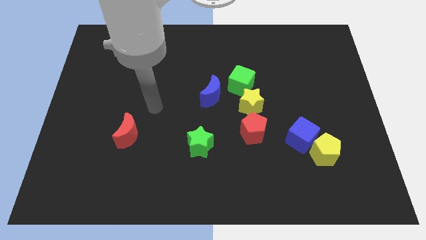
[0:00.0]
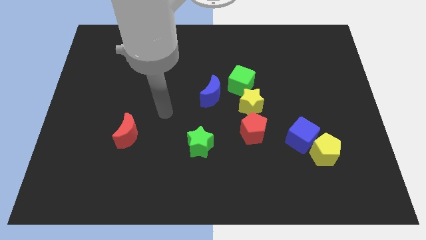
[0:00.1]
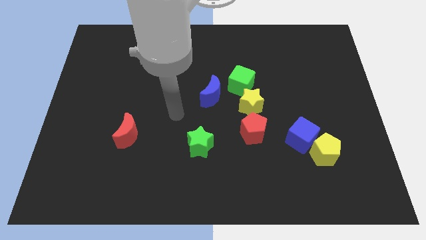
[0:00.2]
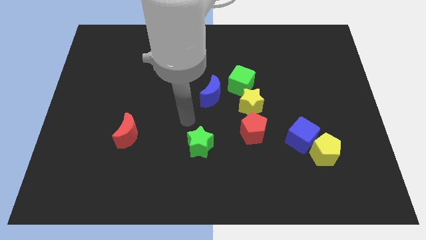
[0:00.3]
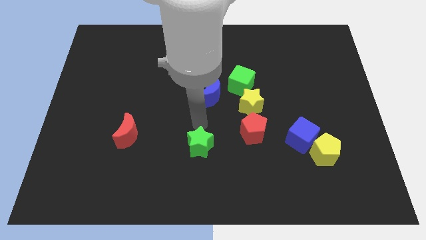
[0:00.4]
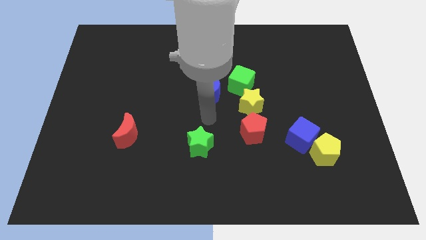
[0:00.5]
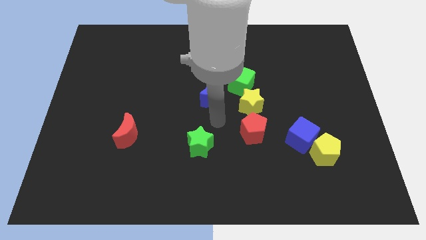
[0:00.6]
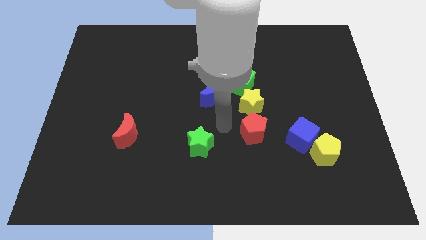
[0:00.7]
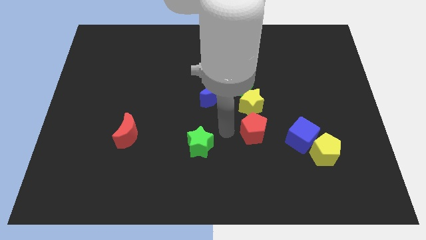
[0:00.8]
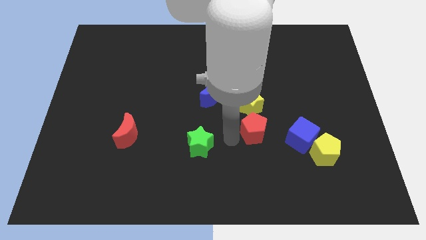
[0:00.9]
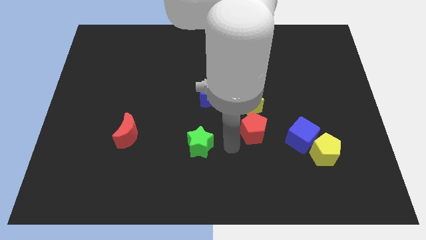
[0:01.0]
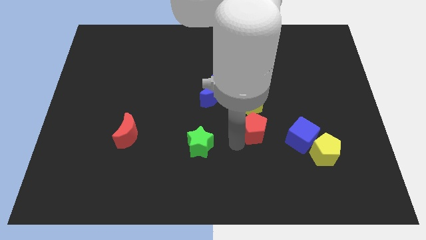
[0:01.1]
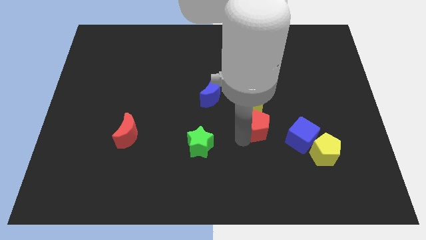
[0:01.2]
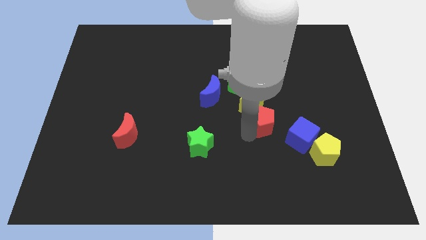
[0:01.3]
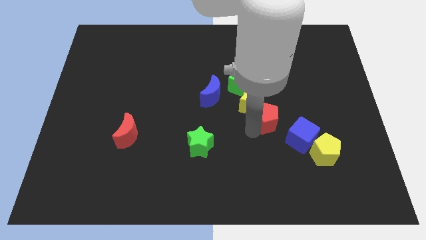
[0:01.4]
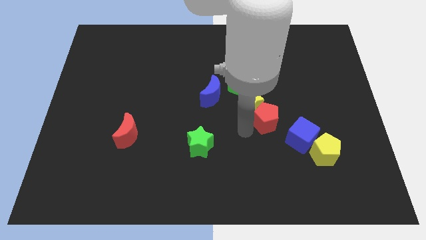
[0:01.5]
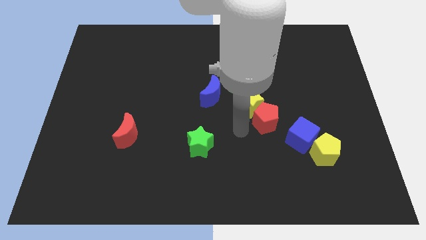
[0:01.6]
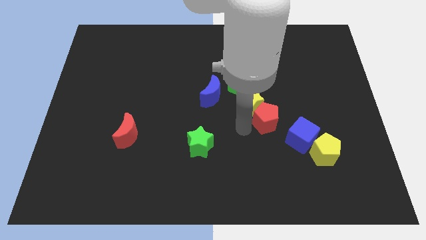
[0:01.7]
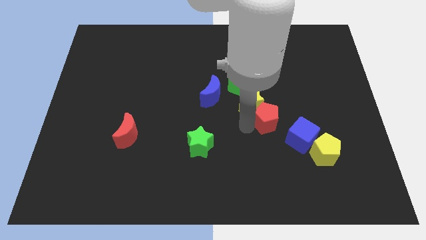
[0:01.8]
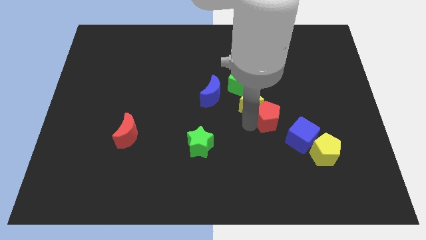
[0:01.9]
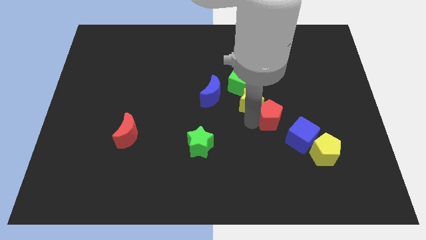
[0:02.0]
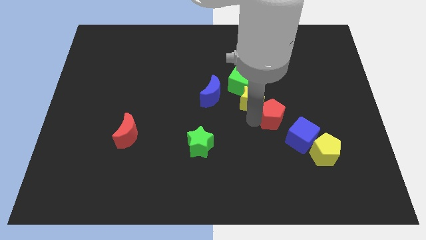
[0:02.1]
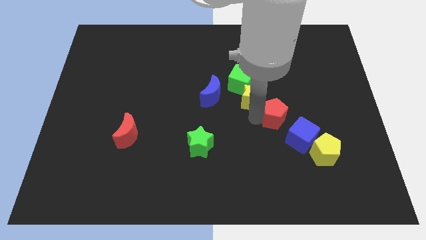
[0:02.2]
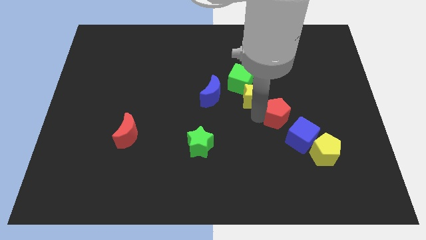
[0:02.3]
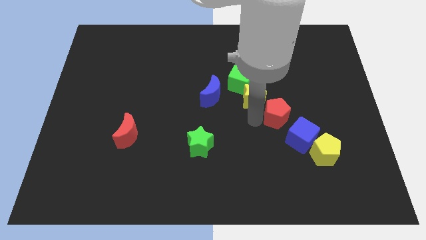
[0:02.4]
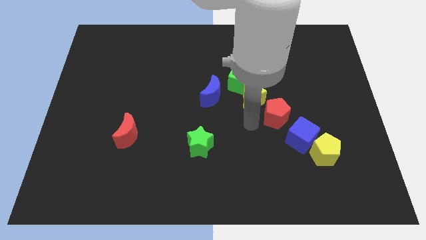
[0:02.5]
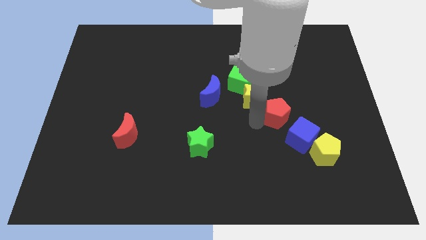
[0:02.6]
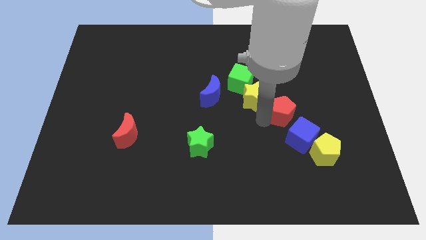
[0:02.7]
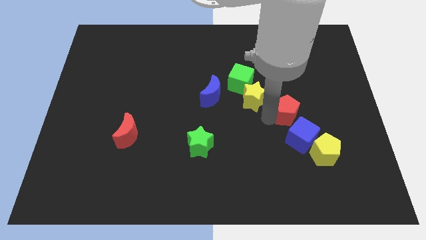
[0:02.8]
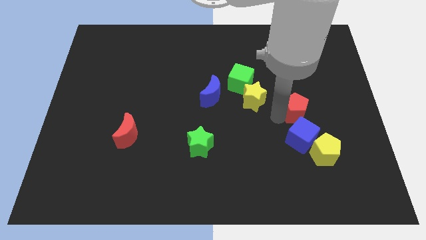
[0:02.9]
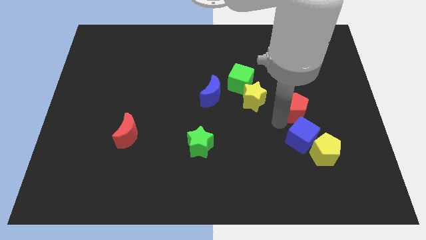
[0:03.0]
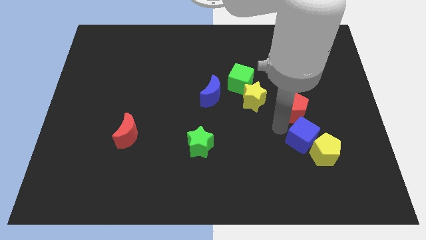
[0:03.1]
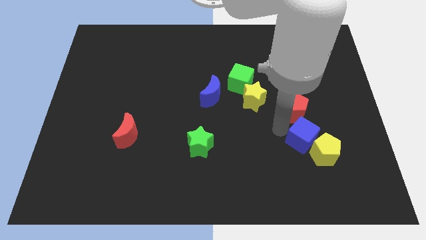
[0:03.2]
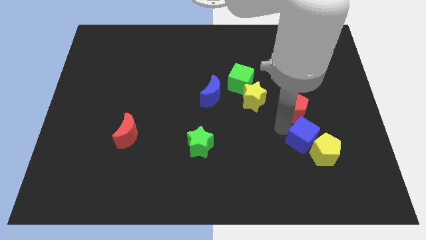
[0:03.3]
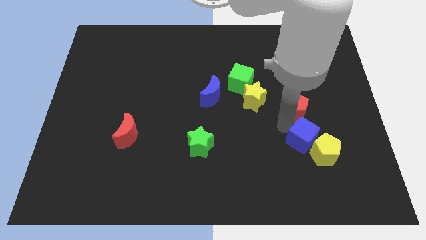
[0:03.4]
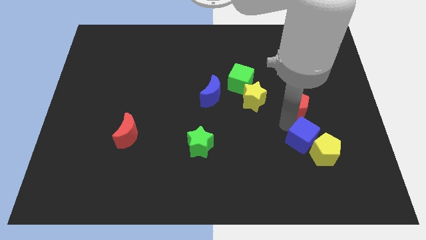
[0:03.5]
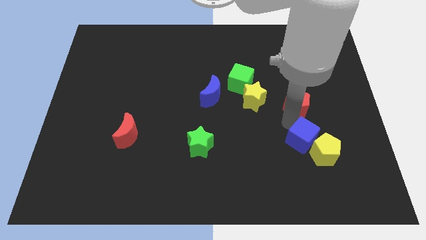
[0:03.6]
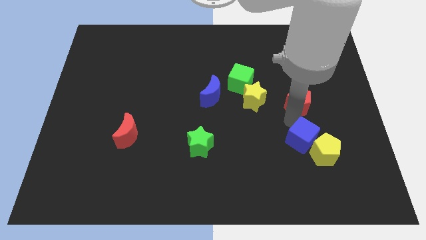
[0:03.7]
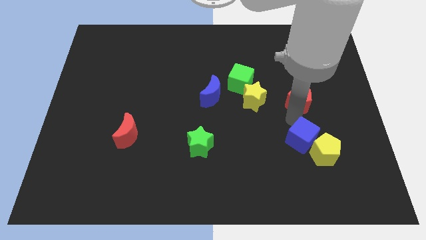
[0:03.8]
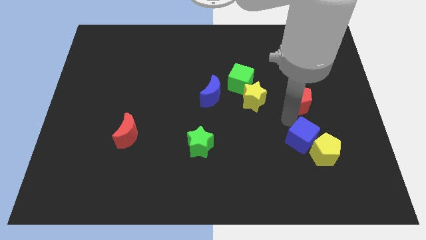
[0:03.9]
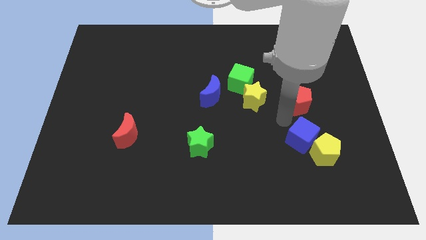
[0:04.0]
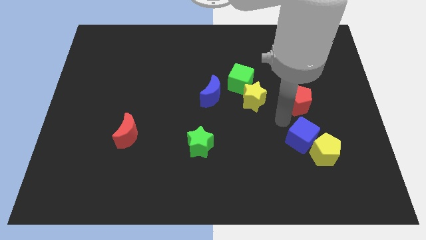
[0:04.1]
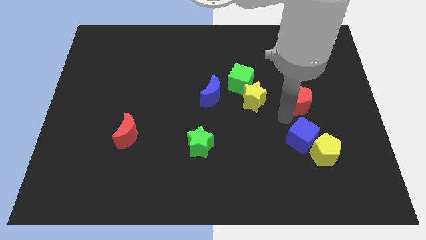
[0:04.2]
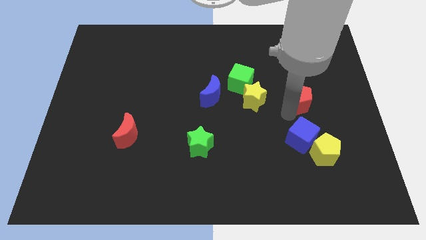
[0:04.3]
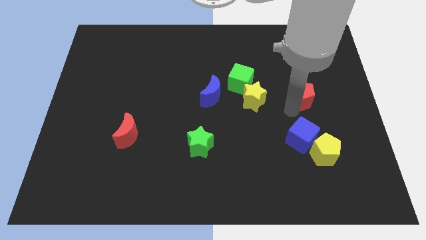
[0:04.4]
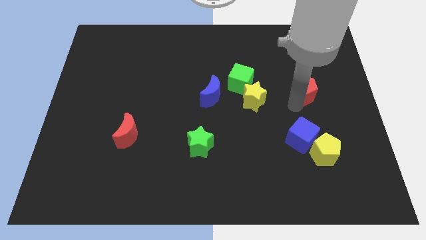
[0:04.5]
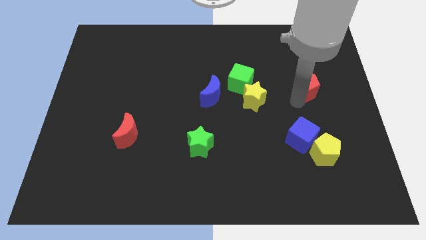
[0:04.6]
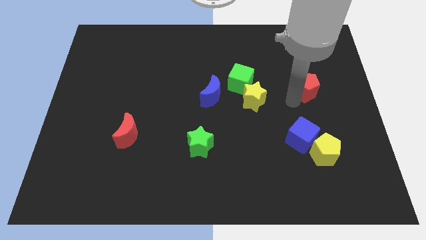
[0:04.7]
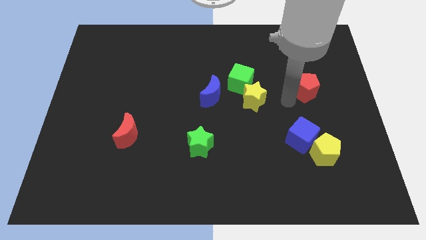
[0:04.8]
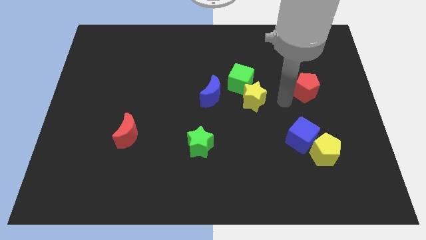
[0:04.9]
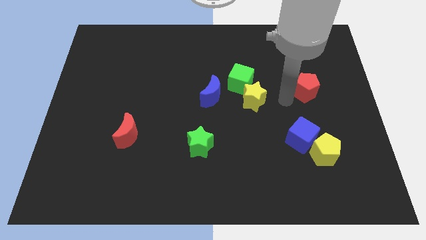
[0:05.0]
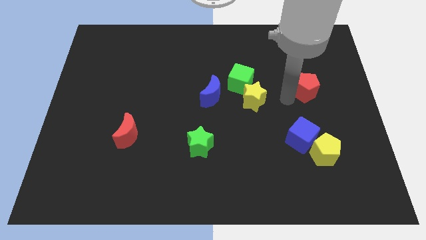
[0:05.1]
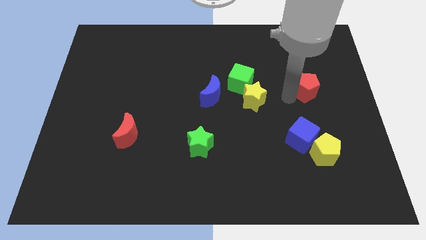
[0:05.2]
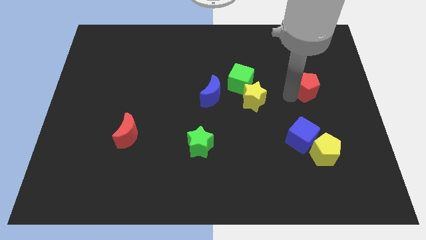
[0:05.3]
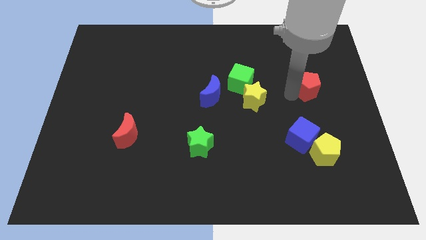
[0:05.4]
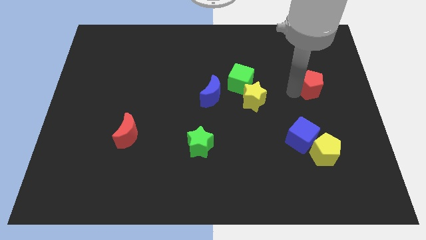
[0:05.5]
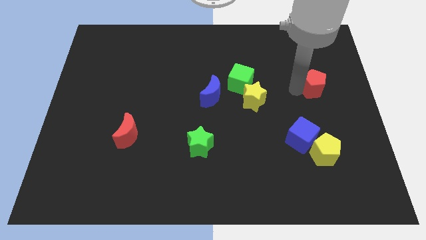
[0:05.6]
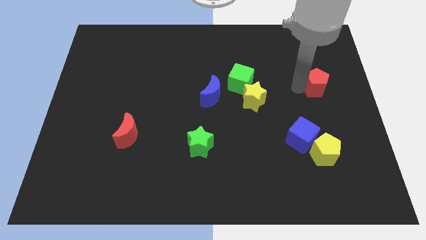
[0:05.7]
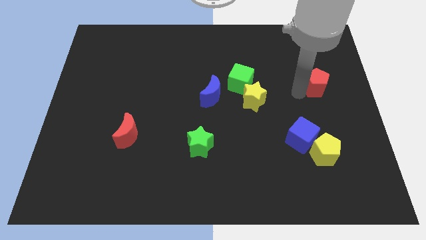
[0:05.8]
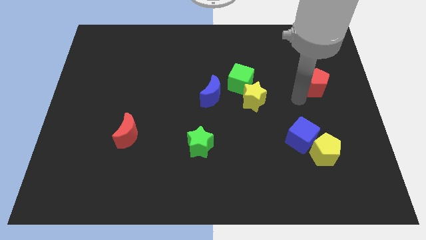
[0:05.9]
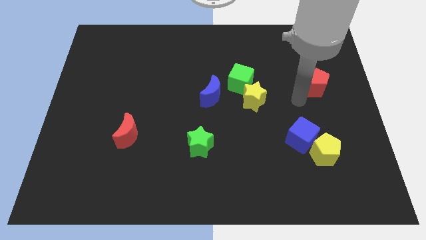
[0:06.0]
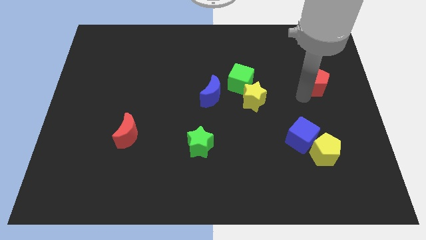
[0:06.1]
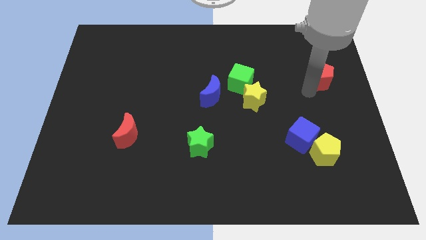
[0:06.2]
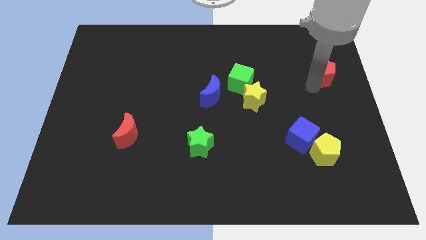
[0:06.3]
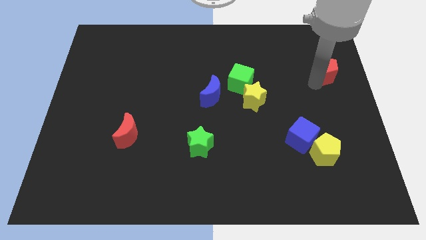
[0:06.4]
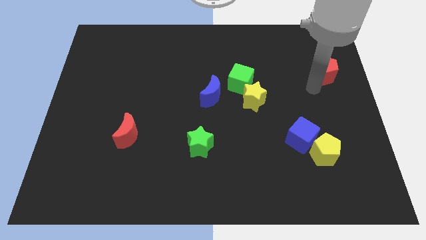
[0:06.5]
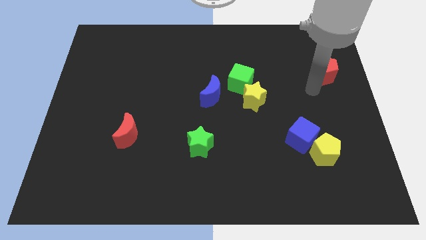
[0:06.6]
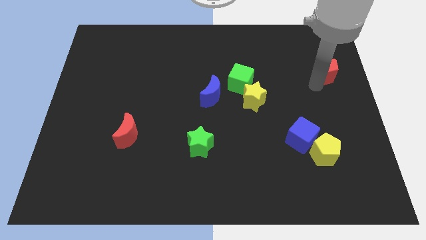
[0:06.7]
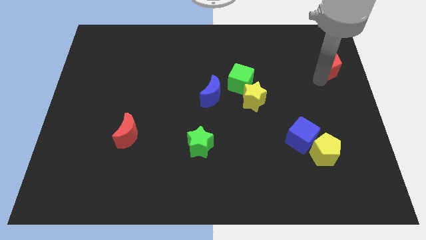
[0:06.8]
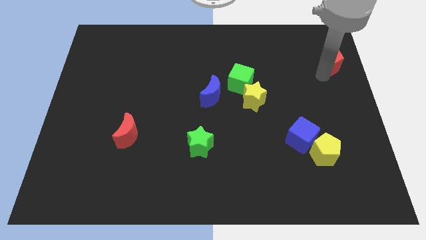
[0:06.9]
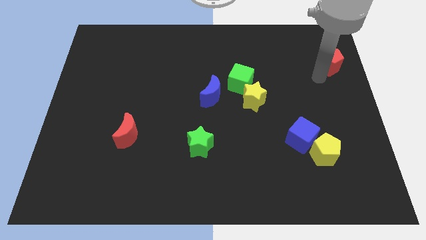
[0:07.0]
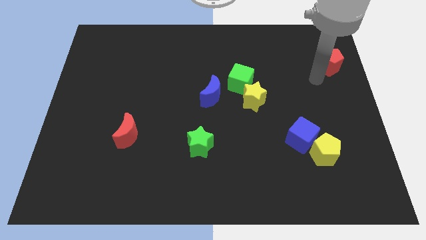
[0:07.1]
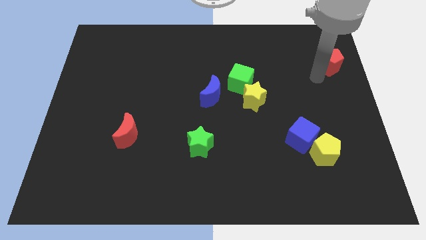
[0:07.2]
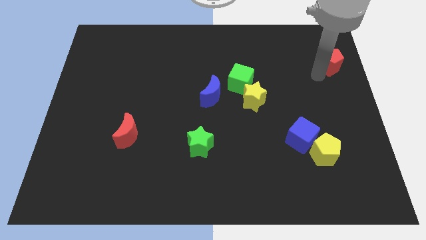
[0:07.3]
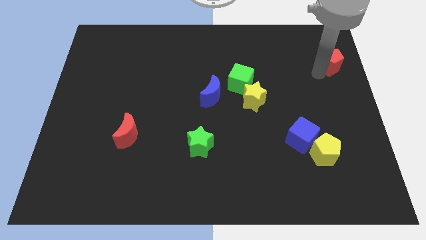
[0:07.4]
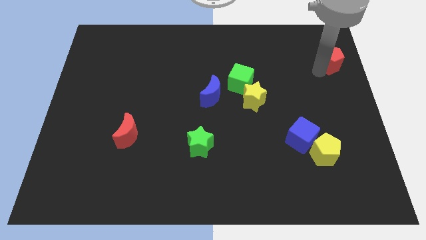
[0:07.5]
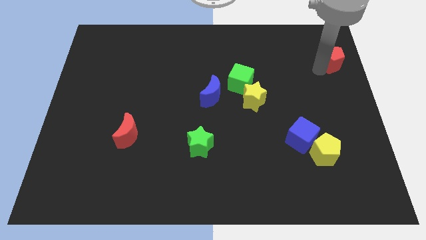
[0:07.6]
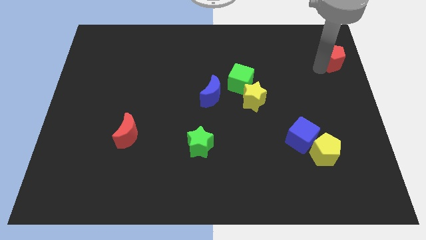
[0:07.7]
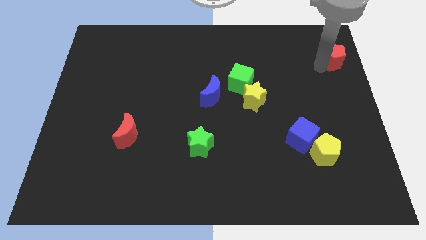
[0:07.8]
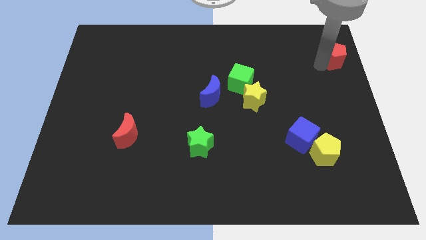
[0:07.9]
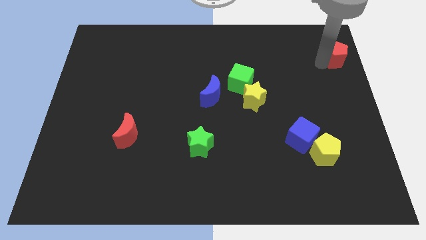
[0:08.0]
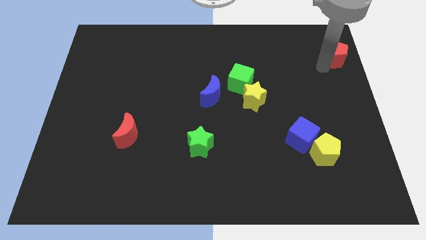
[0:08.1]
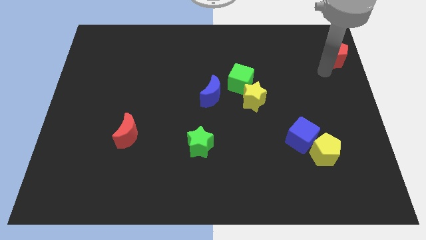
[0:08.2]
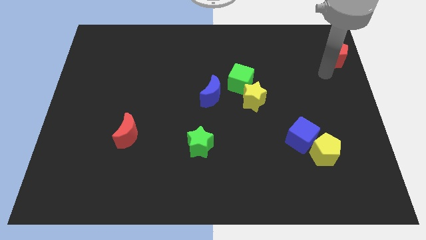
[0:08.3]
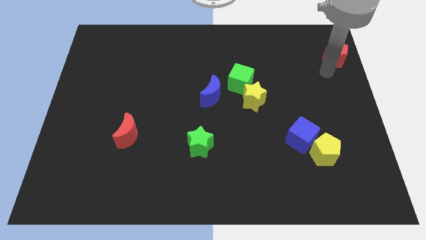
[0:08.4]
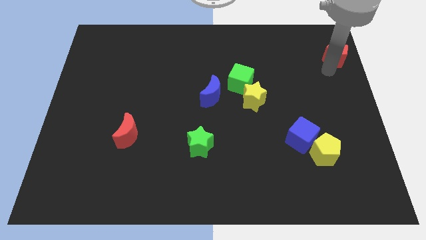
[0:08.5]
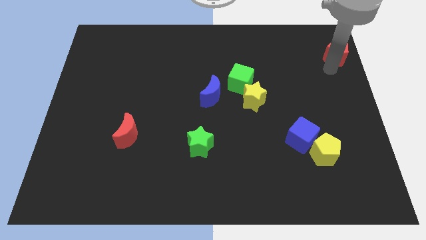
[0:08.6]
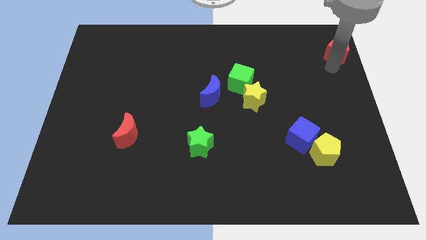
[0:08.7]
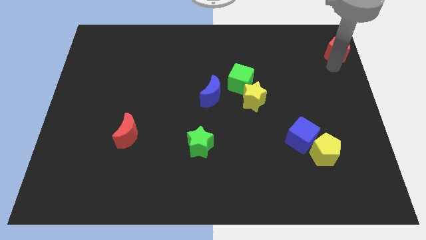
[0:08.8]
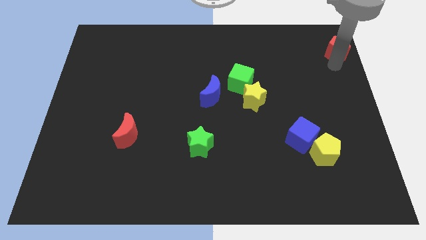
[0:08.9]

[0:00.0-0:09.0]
move the red pentagon to the upper right corner
